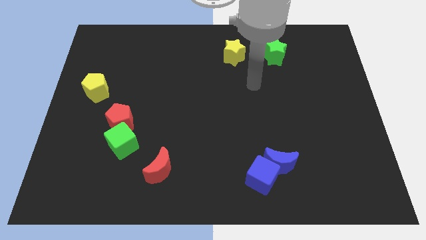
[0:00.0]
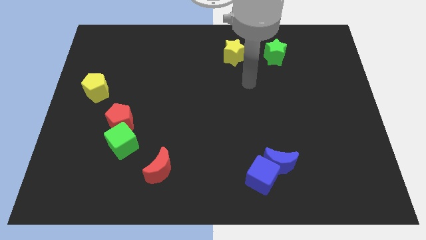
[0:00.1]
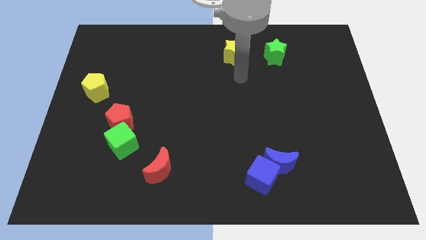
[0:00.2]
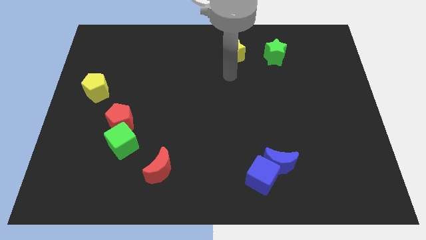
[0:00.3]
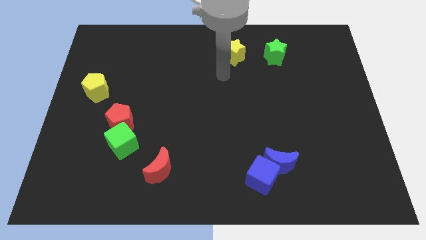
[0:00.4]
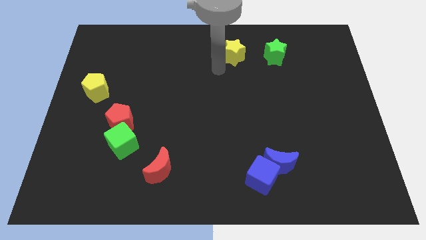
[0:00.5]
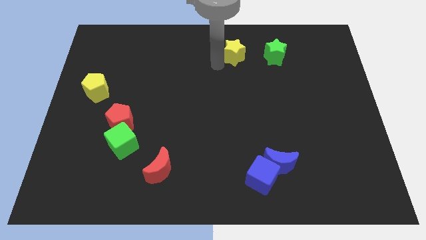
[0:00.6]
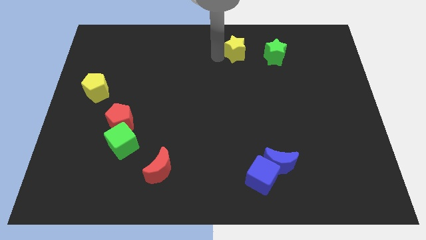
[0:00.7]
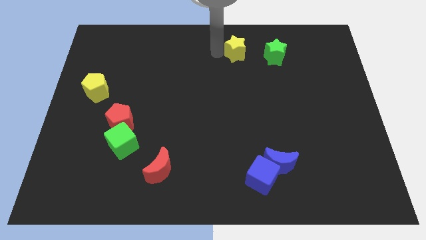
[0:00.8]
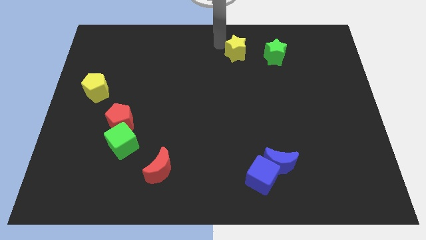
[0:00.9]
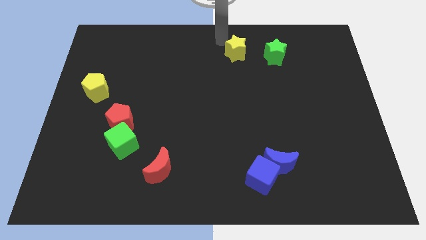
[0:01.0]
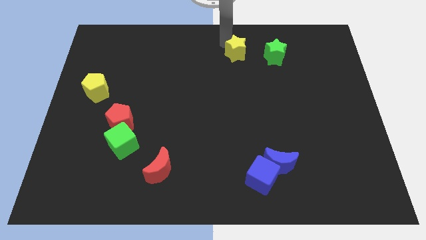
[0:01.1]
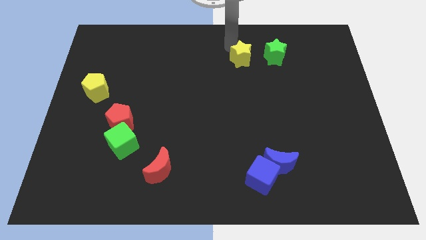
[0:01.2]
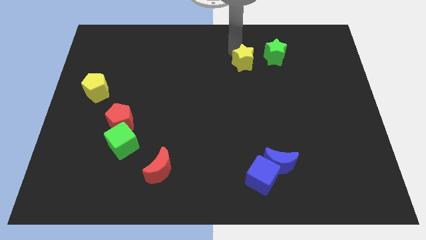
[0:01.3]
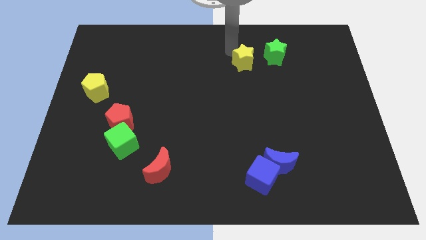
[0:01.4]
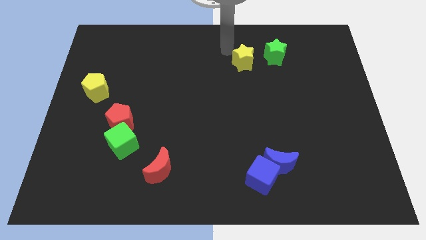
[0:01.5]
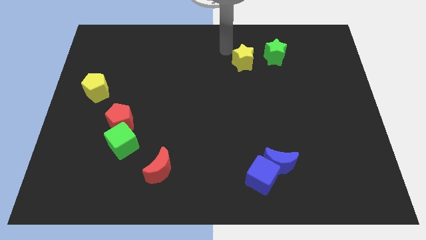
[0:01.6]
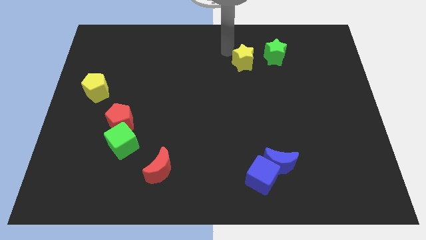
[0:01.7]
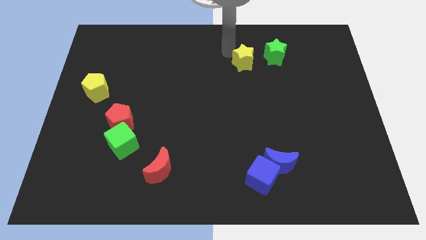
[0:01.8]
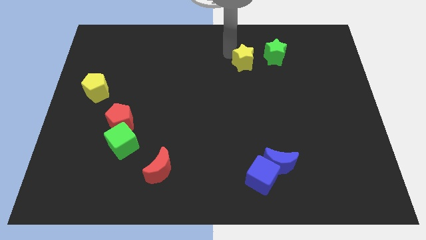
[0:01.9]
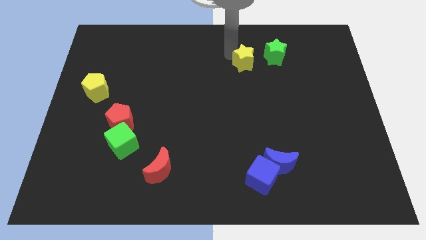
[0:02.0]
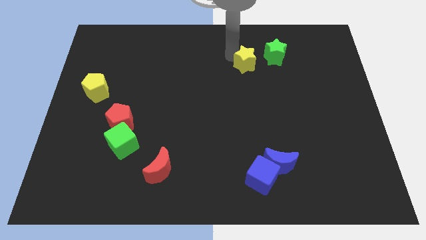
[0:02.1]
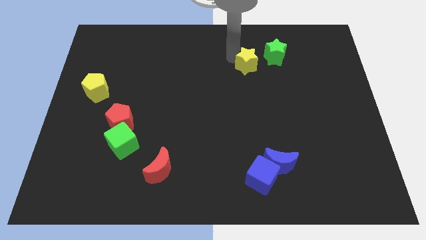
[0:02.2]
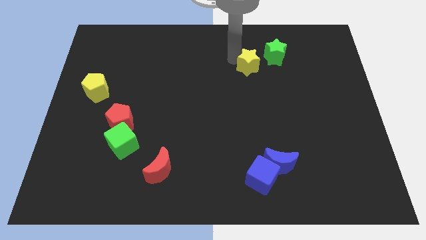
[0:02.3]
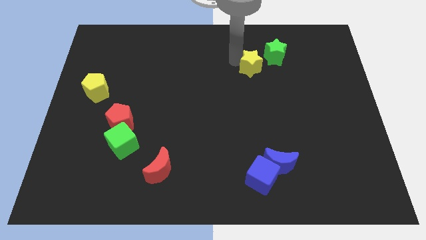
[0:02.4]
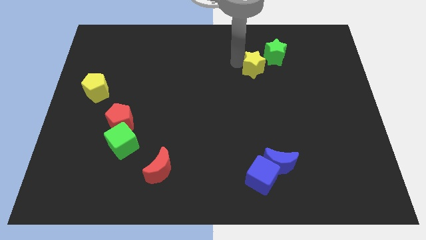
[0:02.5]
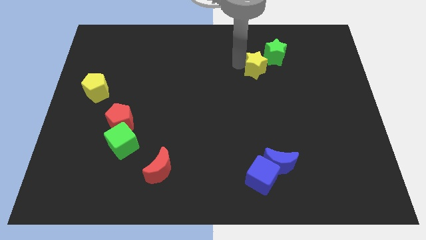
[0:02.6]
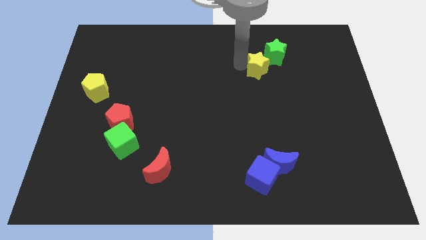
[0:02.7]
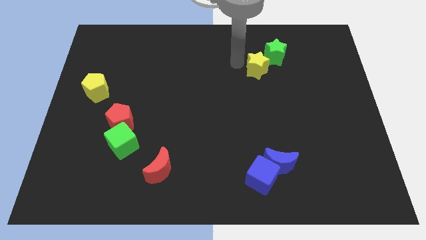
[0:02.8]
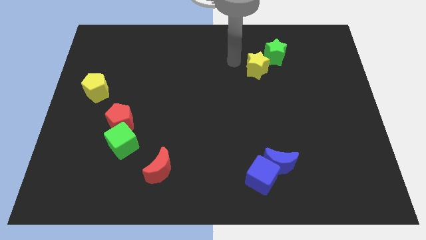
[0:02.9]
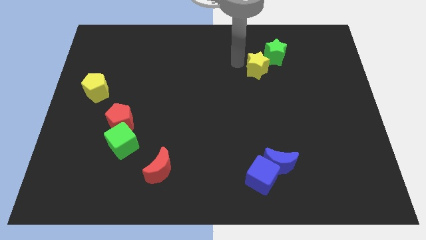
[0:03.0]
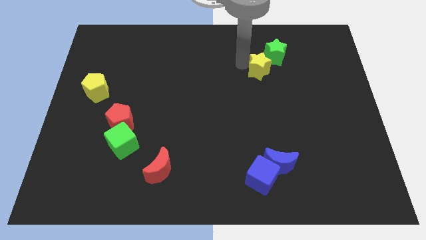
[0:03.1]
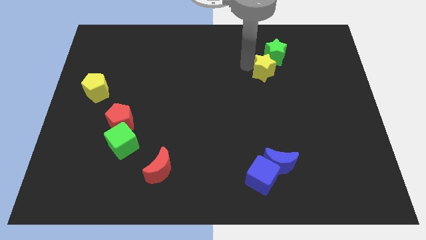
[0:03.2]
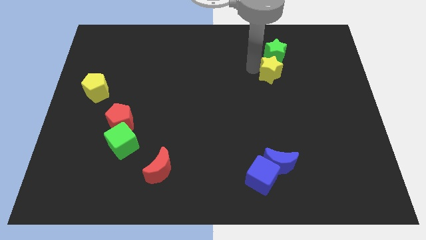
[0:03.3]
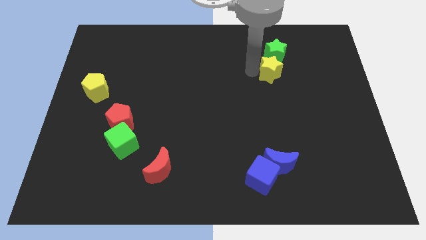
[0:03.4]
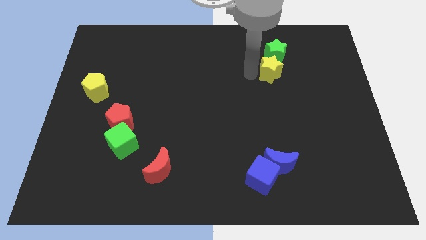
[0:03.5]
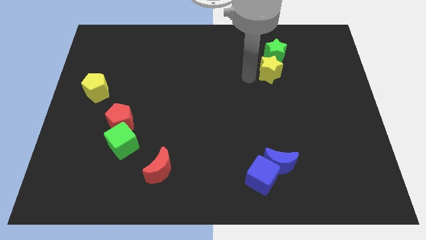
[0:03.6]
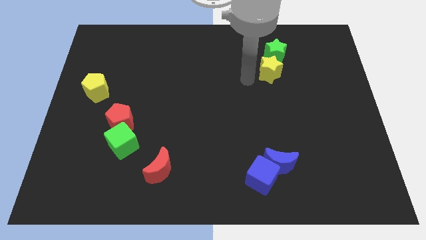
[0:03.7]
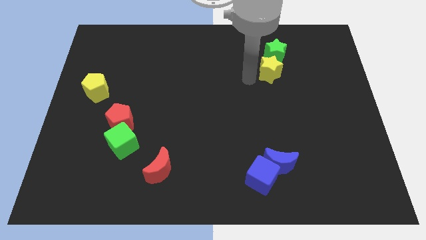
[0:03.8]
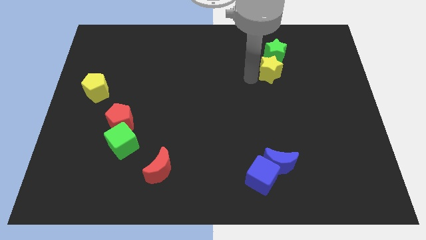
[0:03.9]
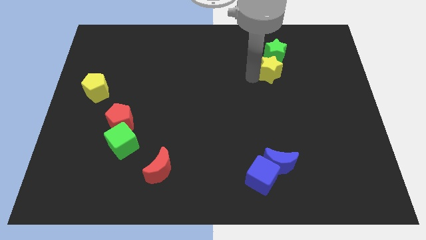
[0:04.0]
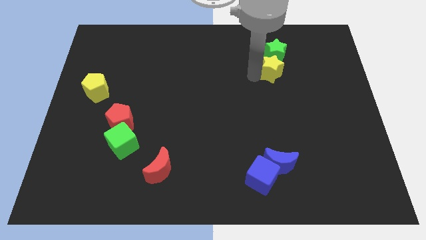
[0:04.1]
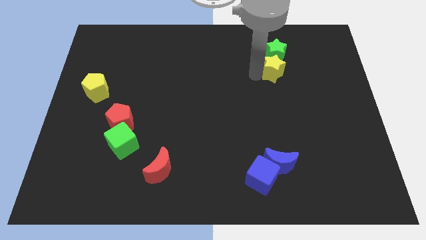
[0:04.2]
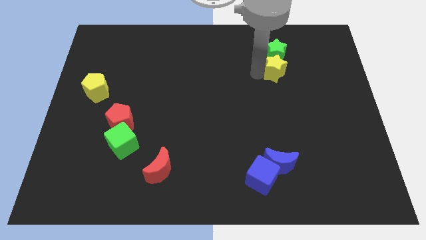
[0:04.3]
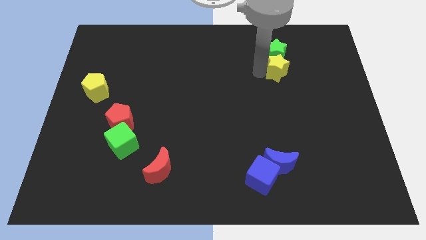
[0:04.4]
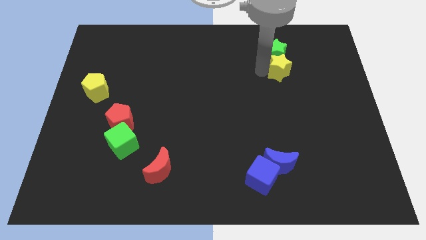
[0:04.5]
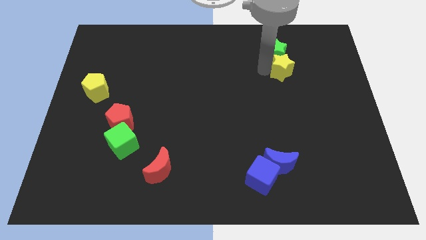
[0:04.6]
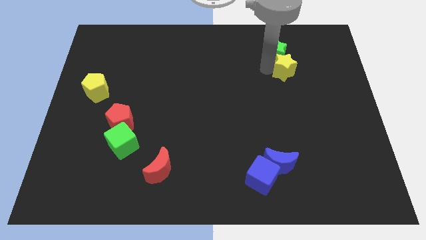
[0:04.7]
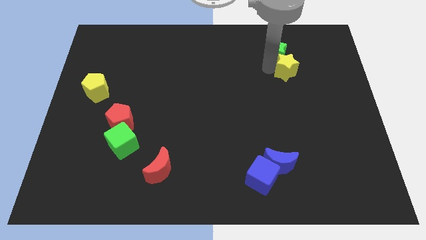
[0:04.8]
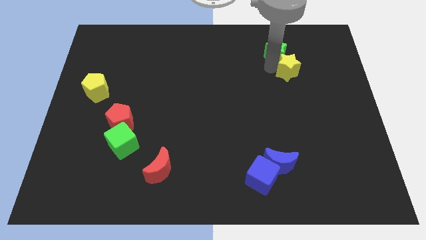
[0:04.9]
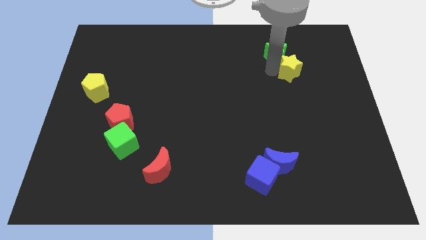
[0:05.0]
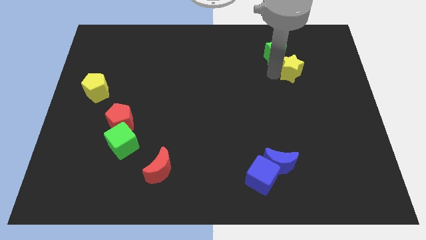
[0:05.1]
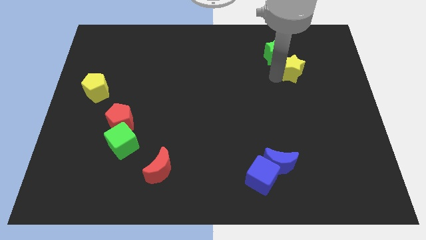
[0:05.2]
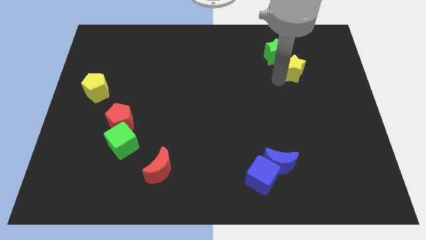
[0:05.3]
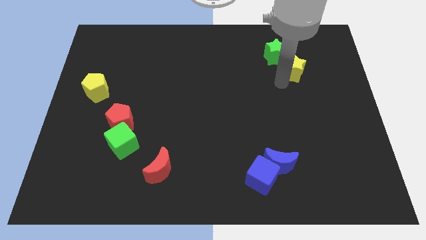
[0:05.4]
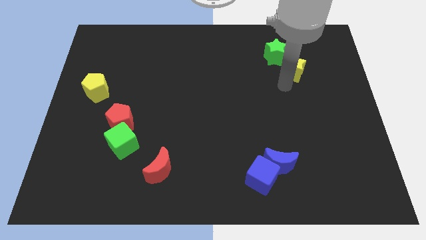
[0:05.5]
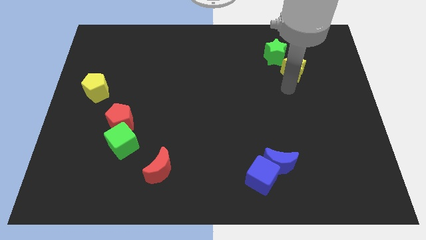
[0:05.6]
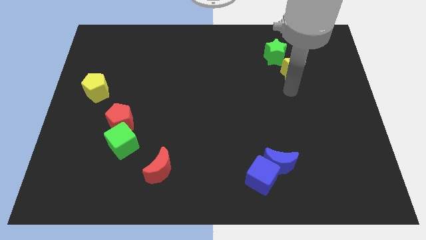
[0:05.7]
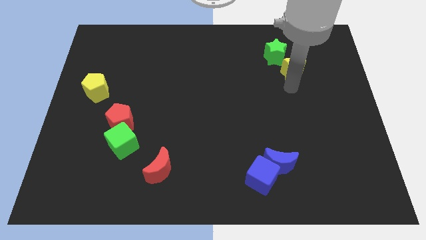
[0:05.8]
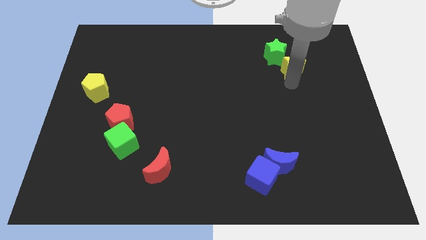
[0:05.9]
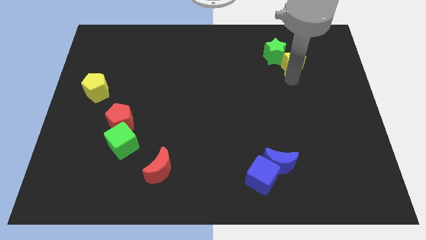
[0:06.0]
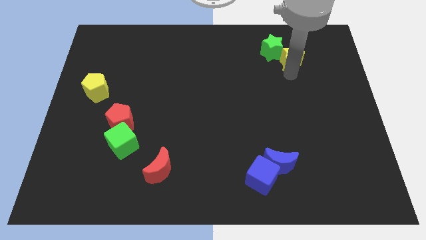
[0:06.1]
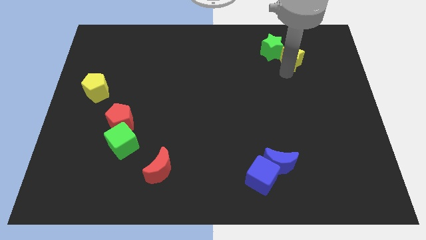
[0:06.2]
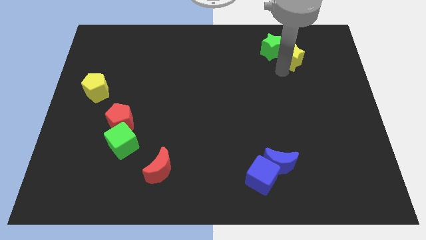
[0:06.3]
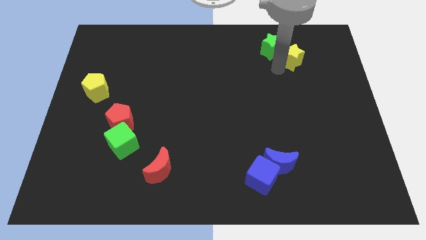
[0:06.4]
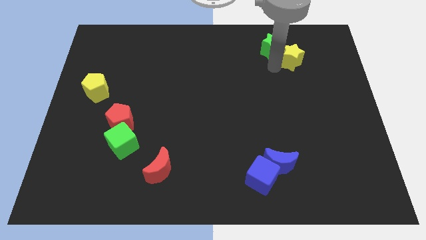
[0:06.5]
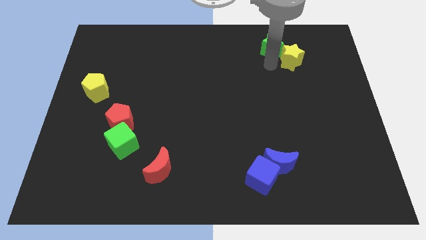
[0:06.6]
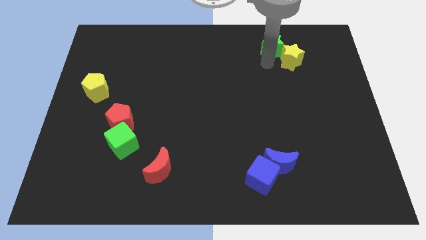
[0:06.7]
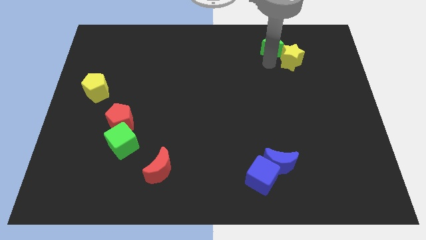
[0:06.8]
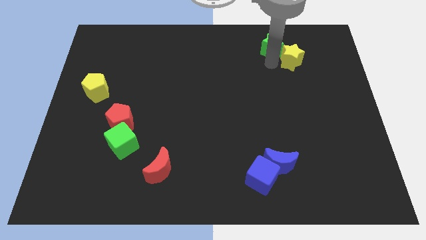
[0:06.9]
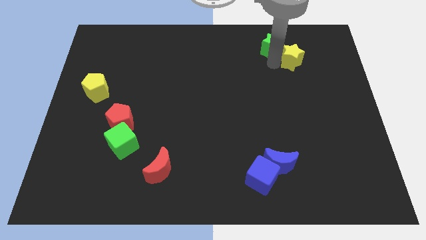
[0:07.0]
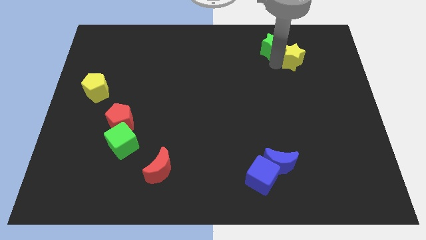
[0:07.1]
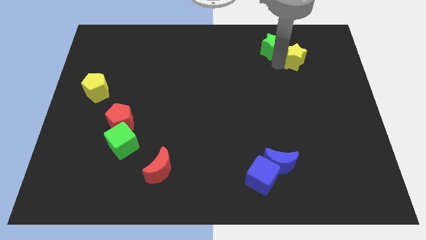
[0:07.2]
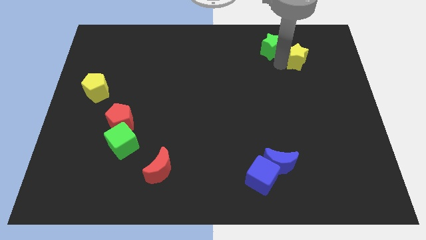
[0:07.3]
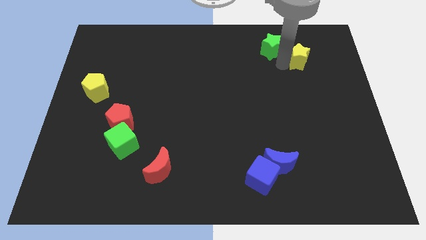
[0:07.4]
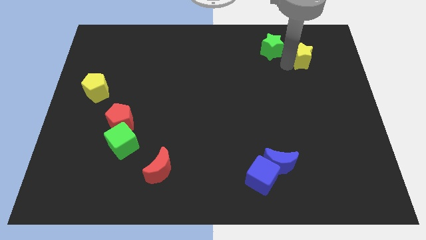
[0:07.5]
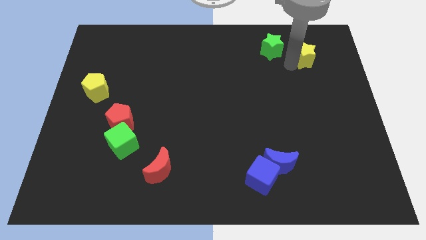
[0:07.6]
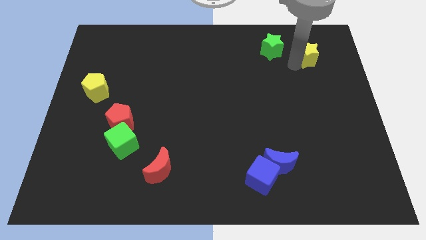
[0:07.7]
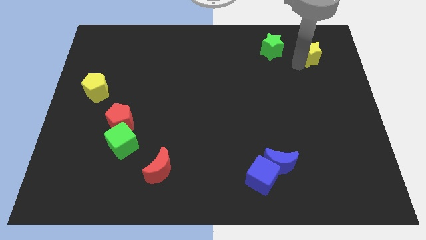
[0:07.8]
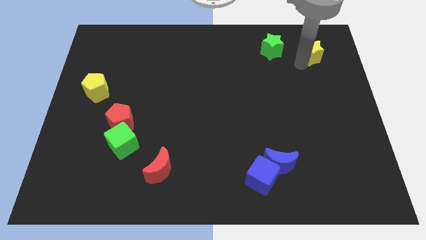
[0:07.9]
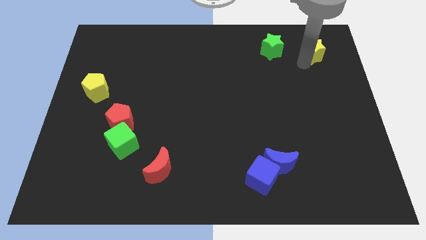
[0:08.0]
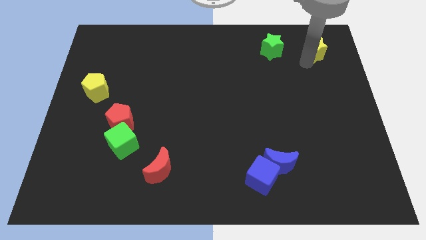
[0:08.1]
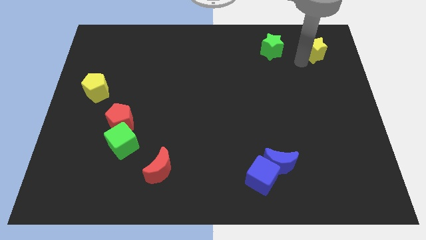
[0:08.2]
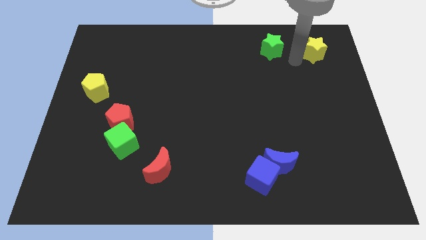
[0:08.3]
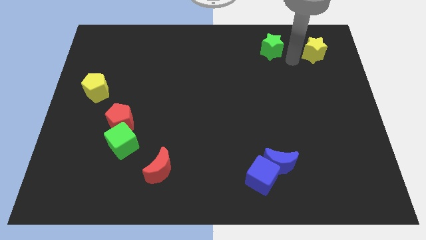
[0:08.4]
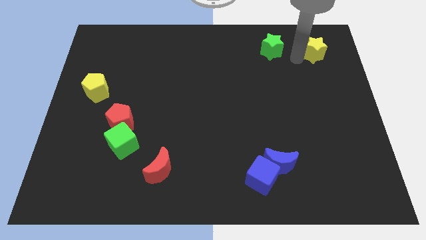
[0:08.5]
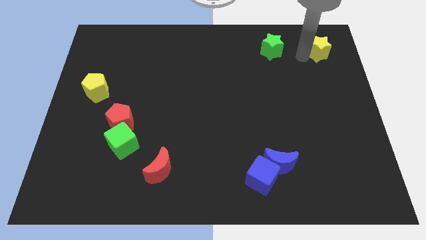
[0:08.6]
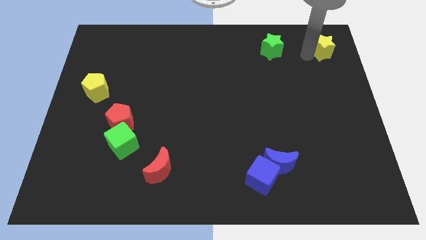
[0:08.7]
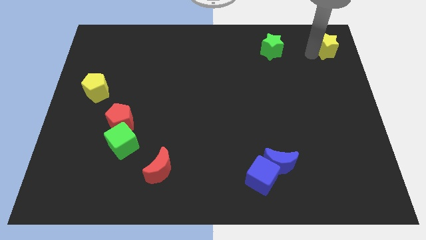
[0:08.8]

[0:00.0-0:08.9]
put the yellow star to the top right
